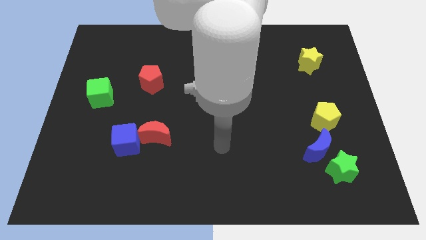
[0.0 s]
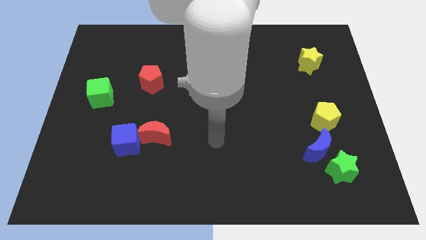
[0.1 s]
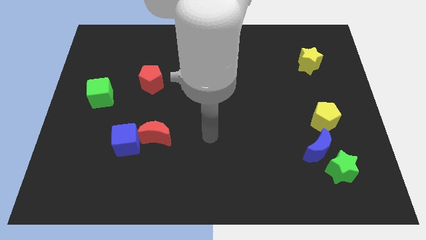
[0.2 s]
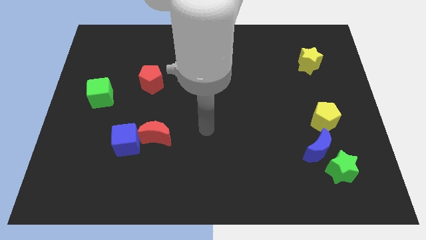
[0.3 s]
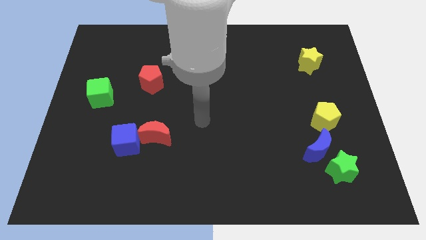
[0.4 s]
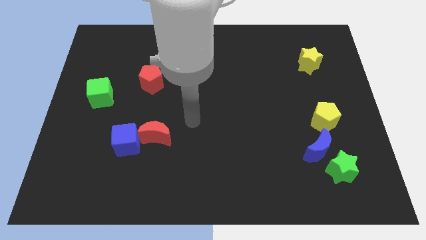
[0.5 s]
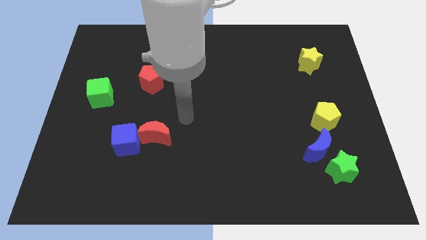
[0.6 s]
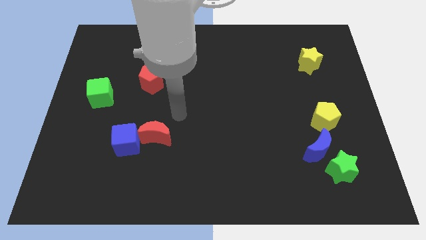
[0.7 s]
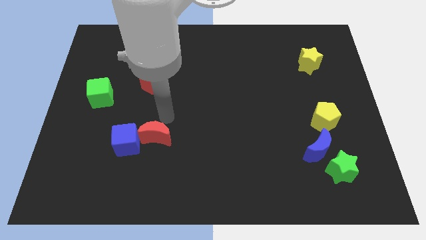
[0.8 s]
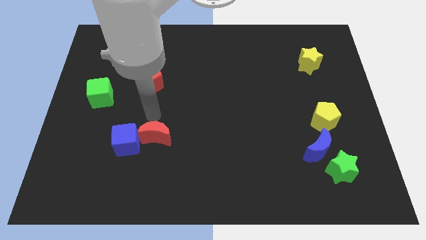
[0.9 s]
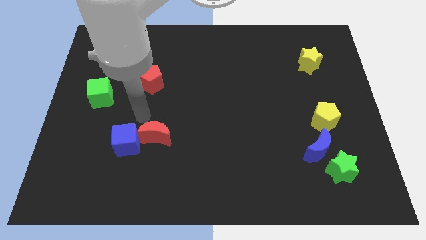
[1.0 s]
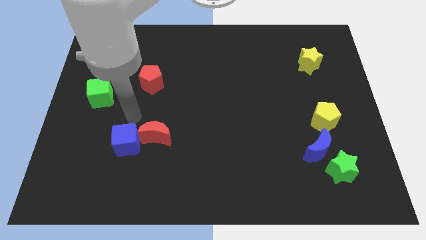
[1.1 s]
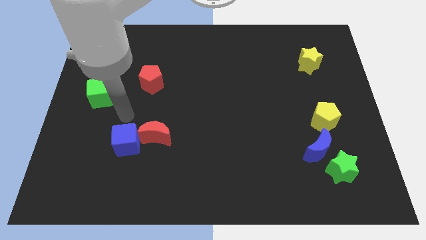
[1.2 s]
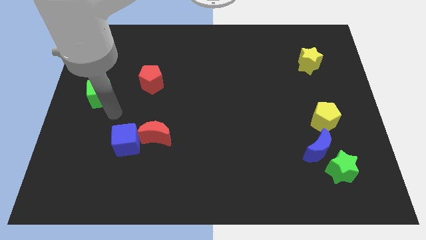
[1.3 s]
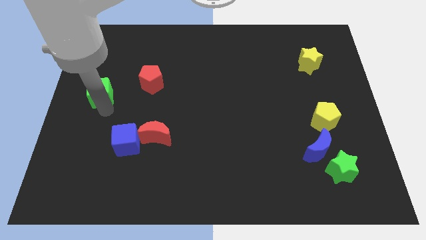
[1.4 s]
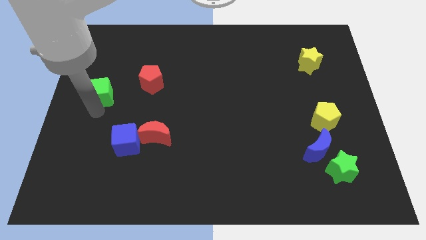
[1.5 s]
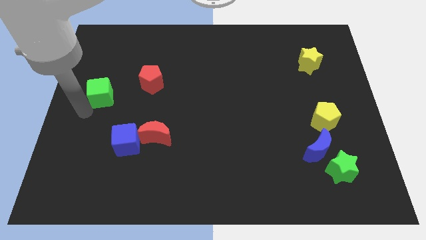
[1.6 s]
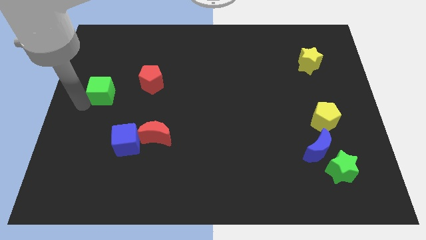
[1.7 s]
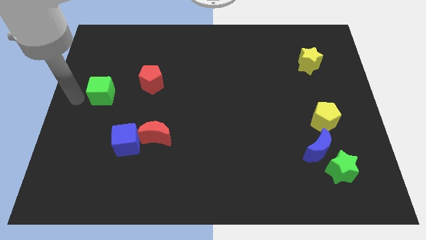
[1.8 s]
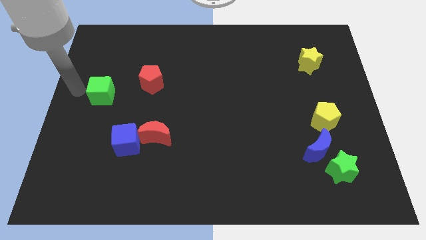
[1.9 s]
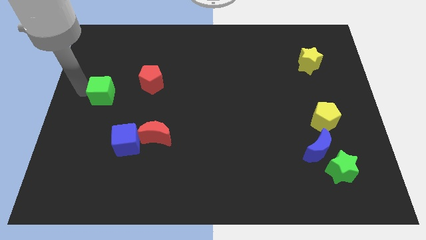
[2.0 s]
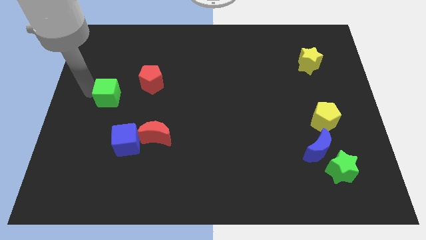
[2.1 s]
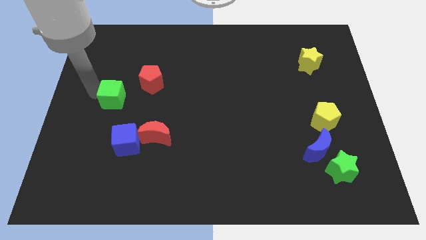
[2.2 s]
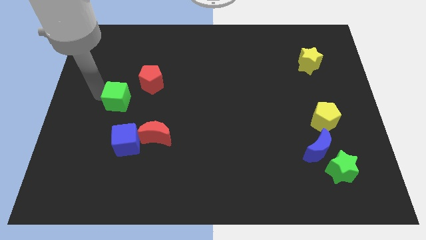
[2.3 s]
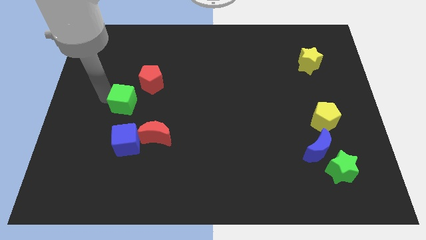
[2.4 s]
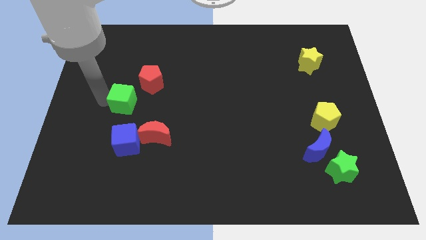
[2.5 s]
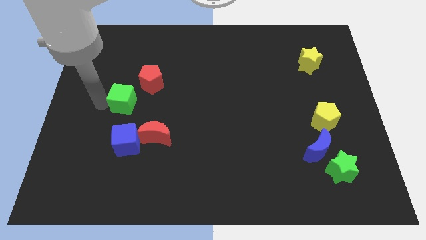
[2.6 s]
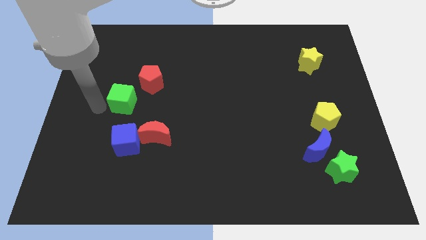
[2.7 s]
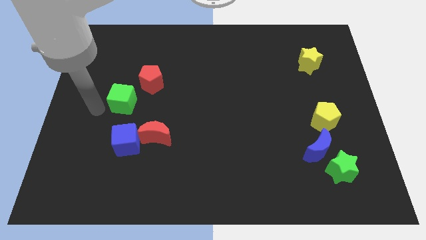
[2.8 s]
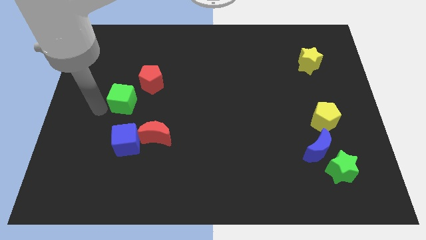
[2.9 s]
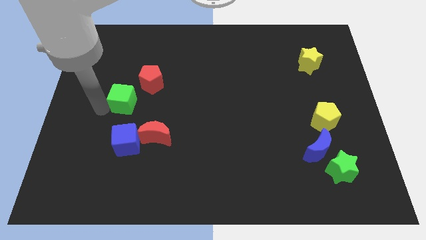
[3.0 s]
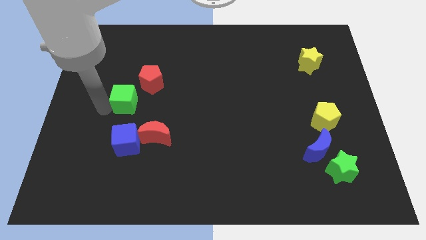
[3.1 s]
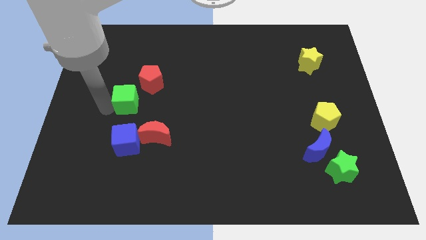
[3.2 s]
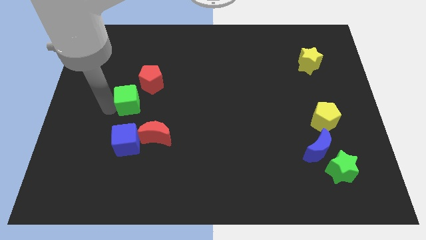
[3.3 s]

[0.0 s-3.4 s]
move the green cube right a little bit

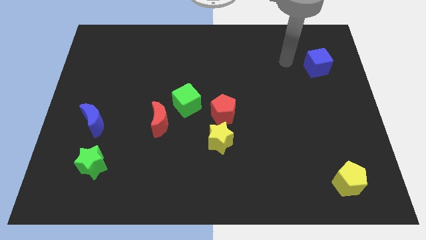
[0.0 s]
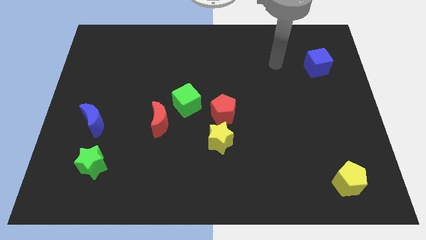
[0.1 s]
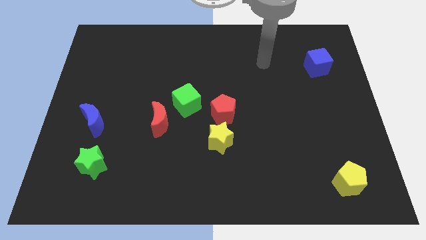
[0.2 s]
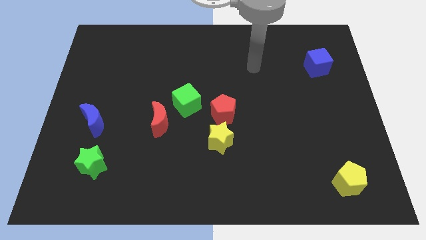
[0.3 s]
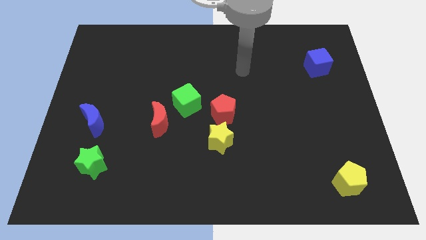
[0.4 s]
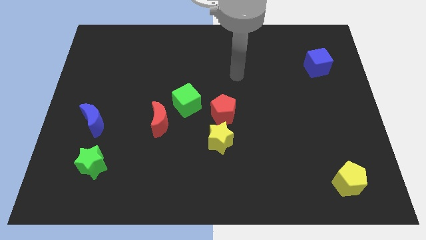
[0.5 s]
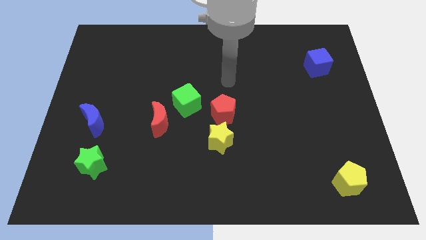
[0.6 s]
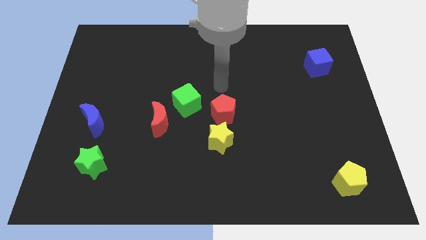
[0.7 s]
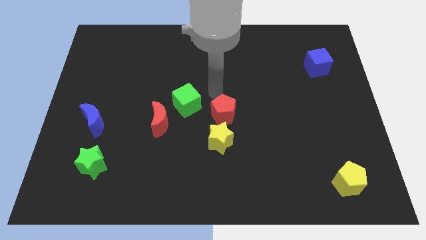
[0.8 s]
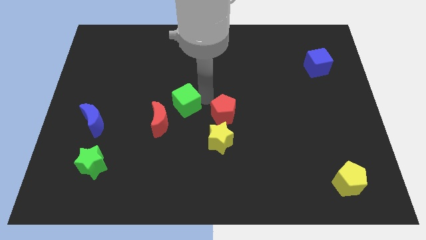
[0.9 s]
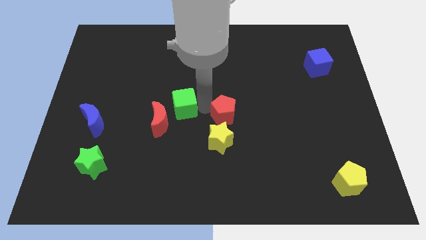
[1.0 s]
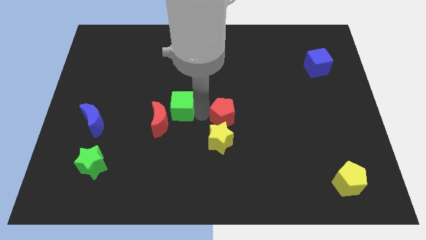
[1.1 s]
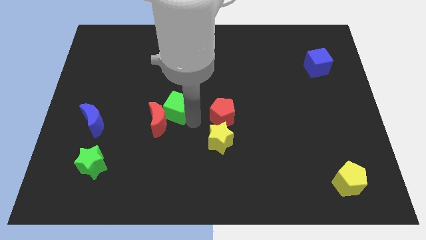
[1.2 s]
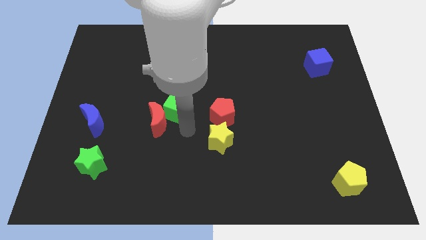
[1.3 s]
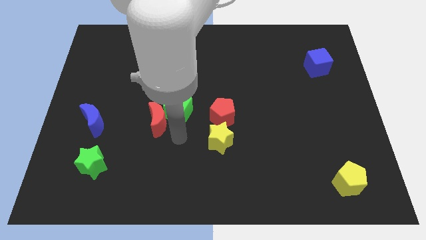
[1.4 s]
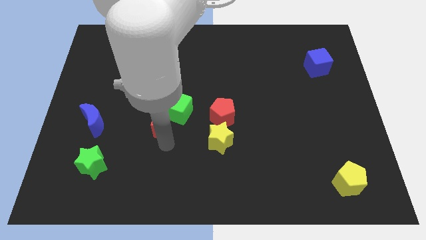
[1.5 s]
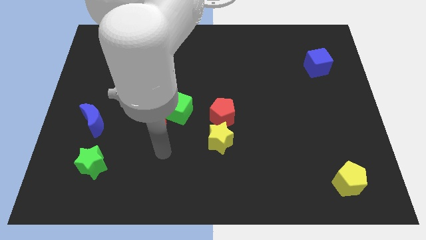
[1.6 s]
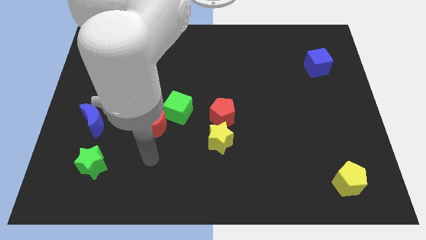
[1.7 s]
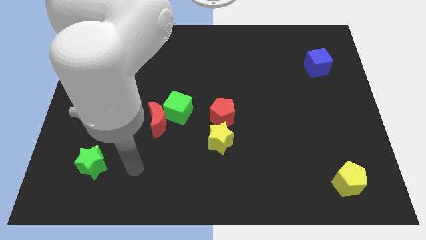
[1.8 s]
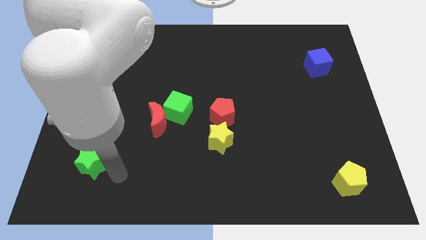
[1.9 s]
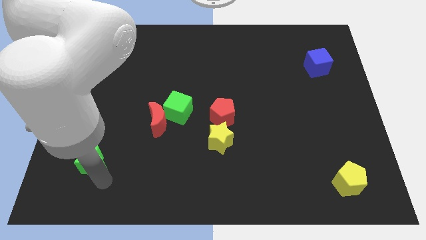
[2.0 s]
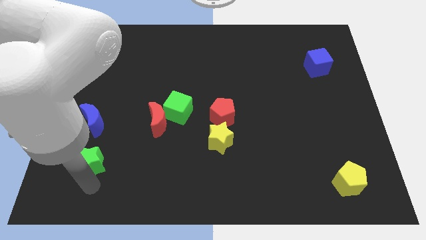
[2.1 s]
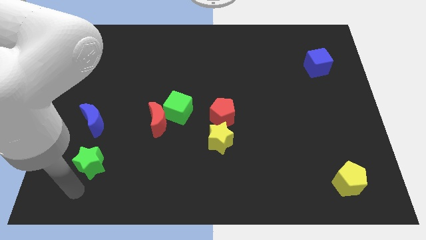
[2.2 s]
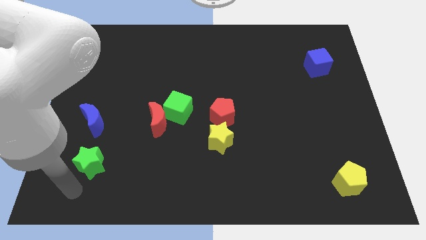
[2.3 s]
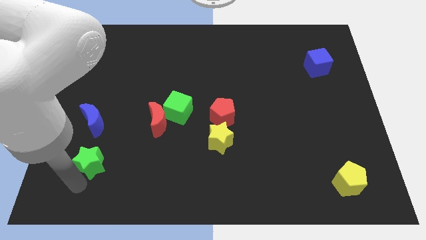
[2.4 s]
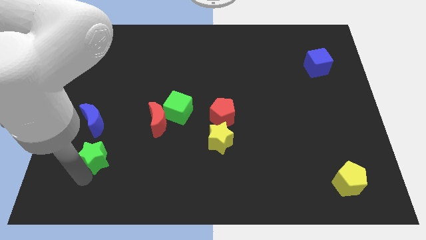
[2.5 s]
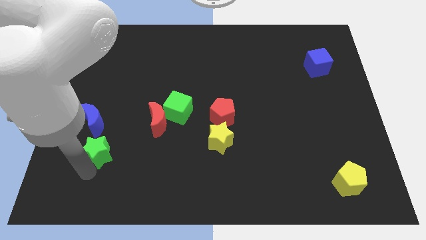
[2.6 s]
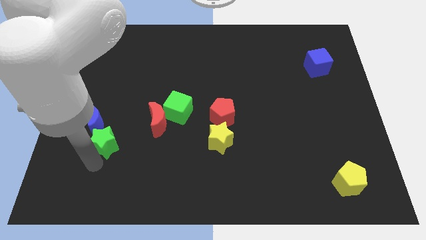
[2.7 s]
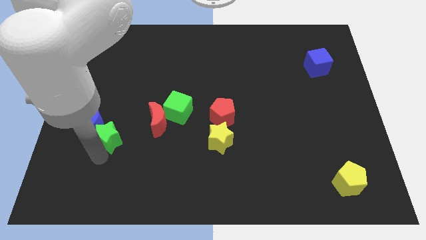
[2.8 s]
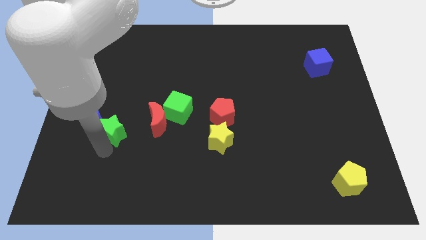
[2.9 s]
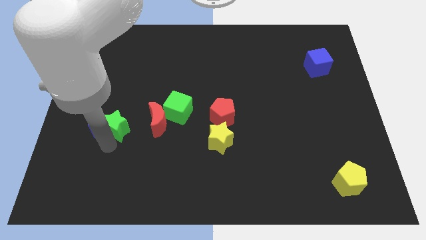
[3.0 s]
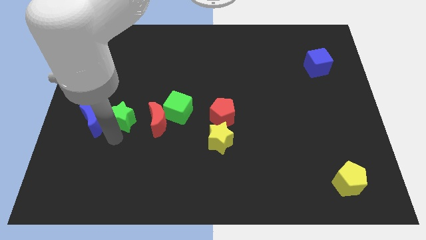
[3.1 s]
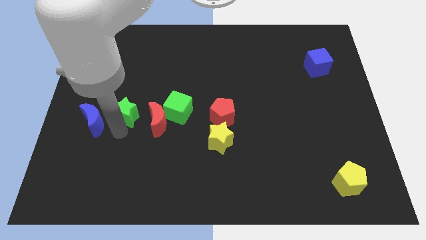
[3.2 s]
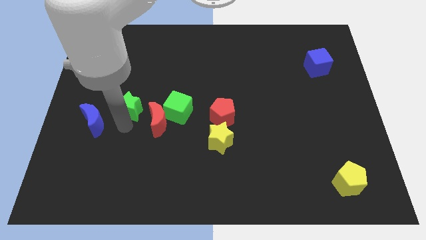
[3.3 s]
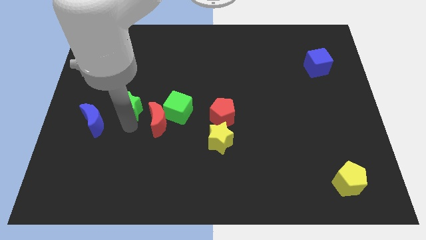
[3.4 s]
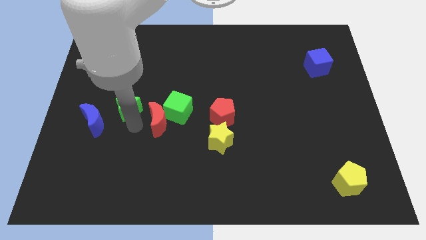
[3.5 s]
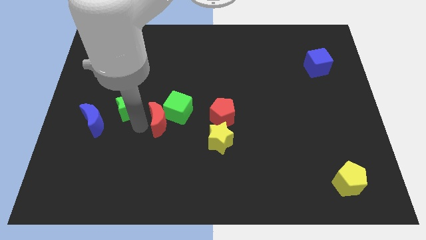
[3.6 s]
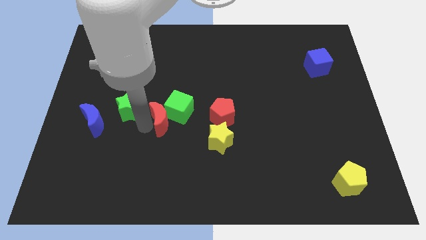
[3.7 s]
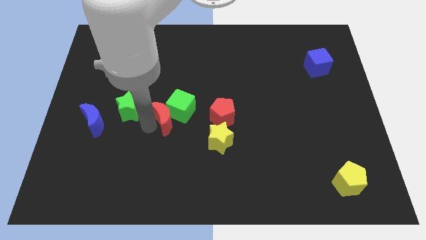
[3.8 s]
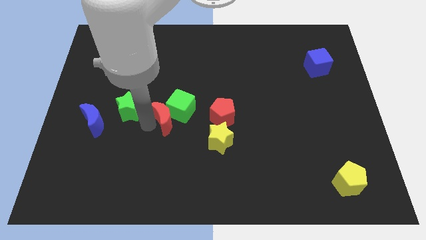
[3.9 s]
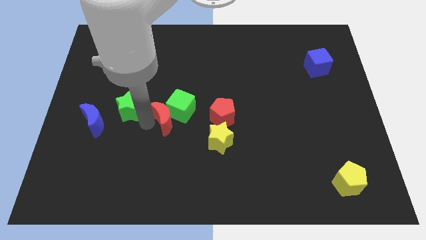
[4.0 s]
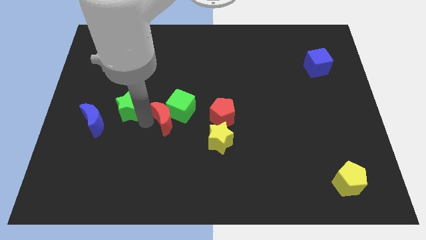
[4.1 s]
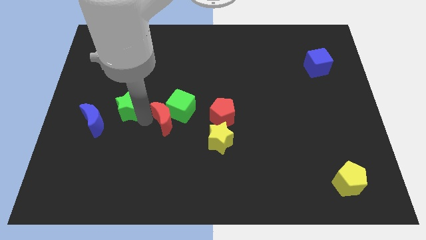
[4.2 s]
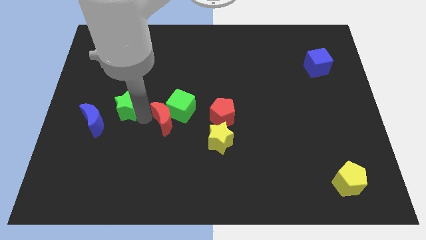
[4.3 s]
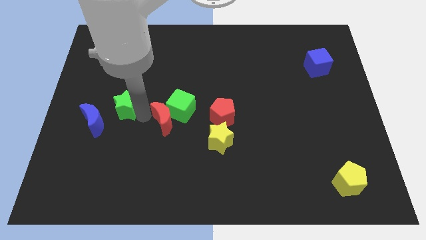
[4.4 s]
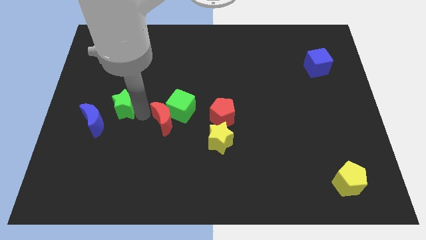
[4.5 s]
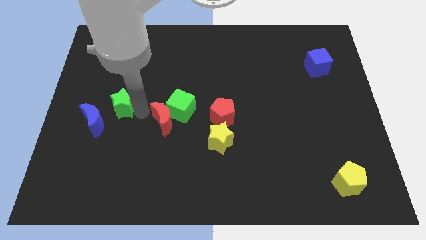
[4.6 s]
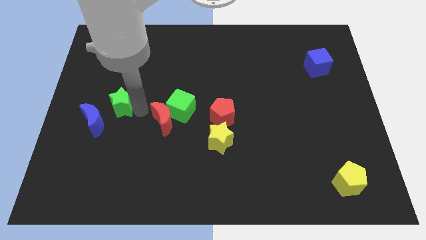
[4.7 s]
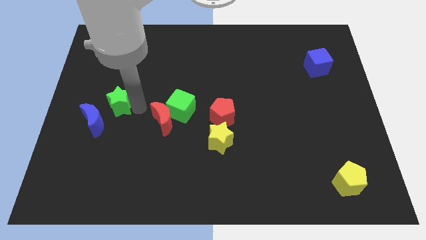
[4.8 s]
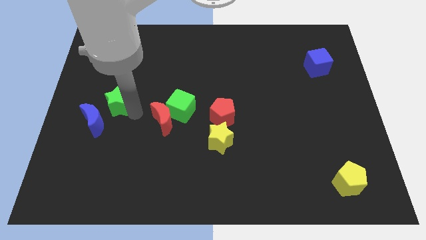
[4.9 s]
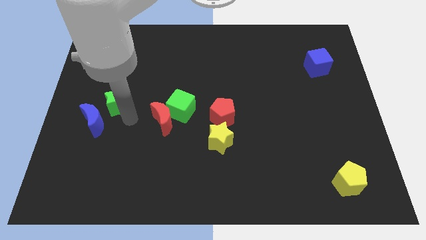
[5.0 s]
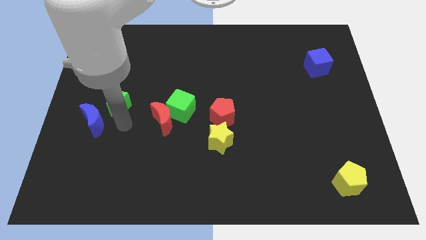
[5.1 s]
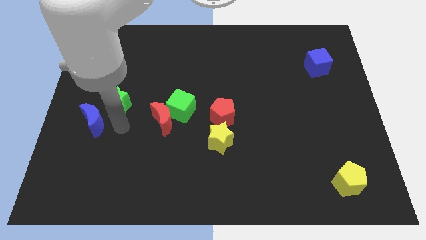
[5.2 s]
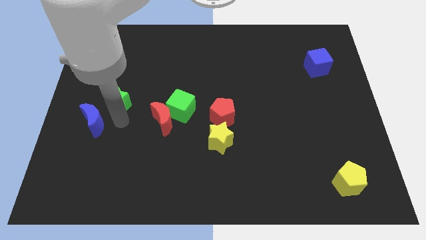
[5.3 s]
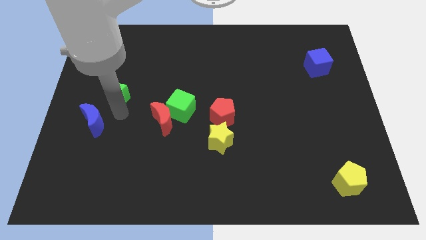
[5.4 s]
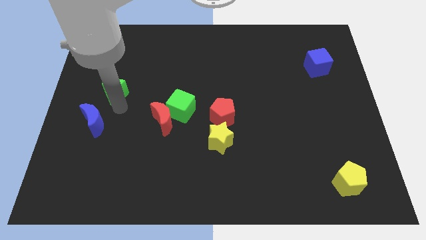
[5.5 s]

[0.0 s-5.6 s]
slide the green star upwards
